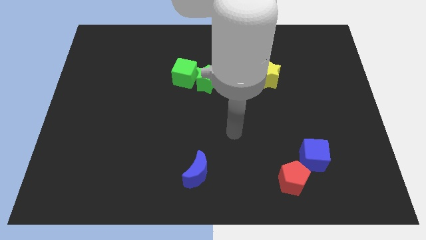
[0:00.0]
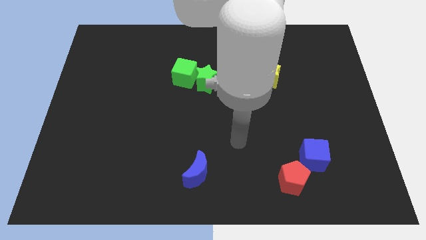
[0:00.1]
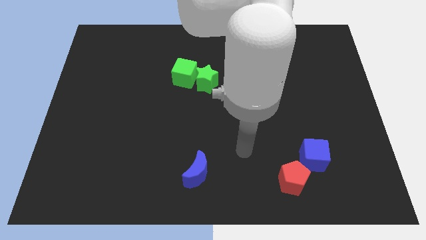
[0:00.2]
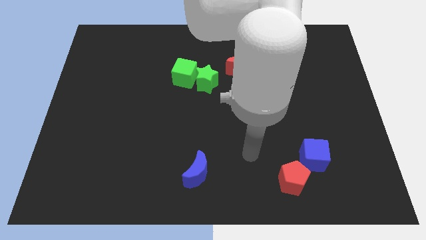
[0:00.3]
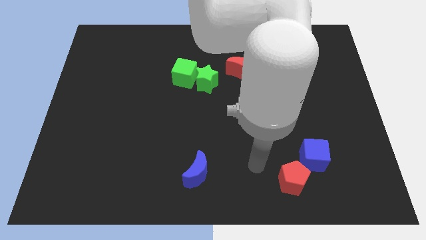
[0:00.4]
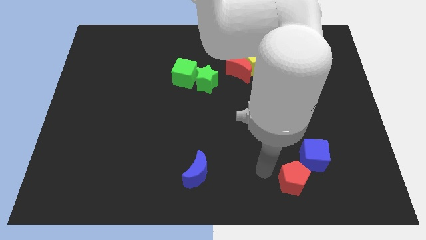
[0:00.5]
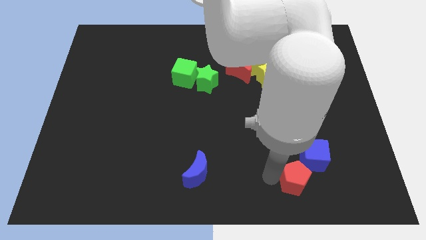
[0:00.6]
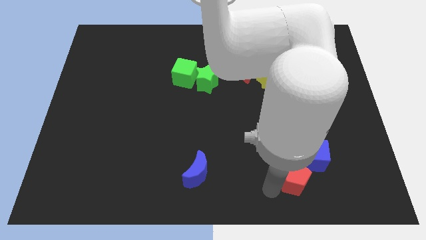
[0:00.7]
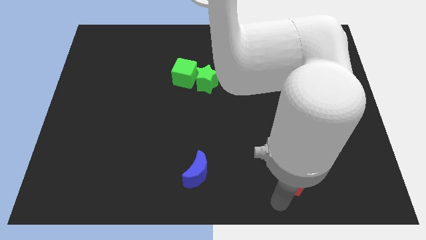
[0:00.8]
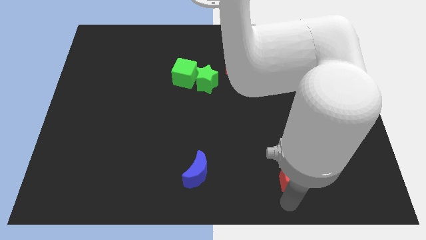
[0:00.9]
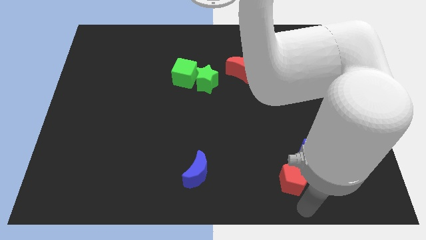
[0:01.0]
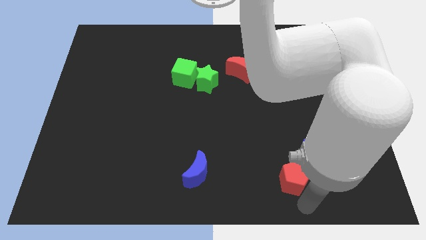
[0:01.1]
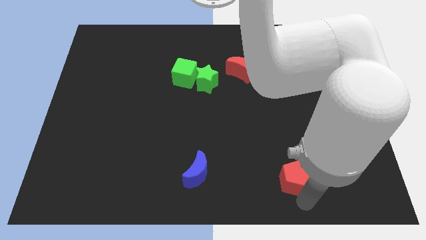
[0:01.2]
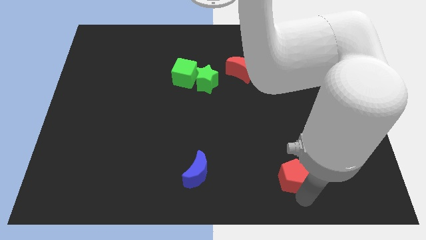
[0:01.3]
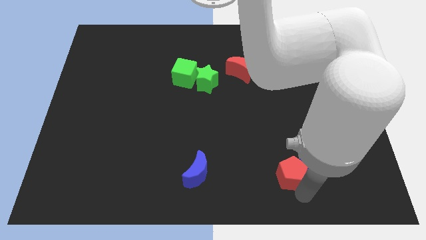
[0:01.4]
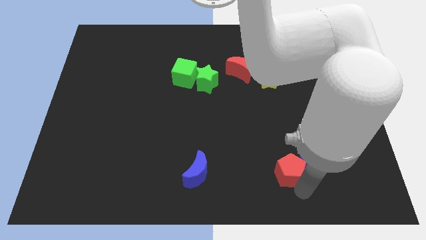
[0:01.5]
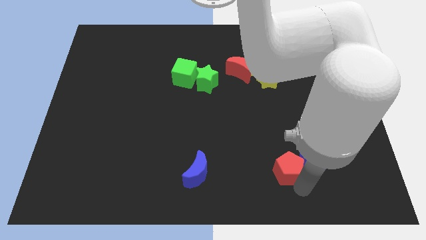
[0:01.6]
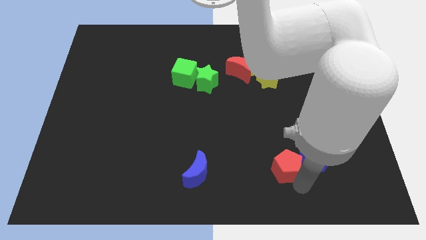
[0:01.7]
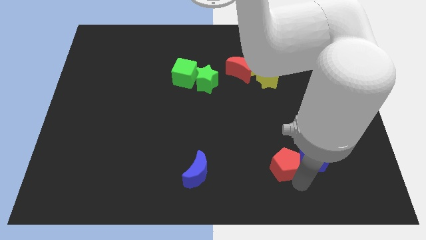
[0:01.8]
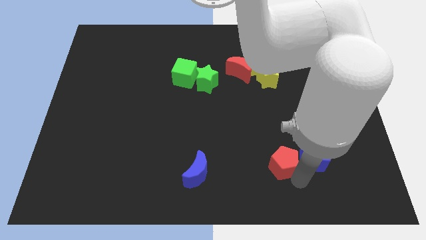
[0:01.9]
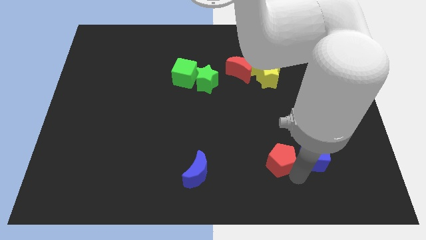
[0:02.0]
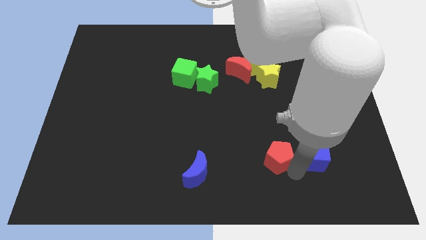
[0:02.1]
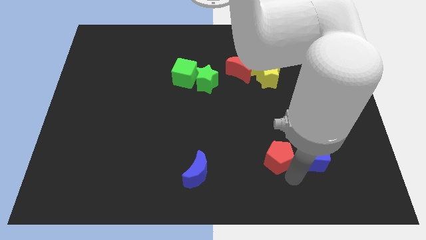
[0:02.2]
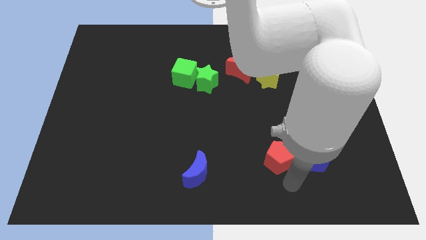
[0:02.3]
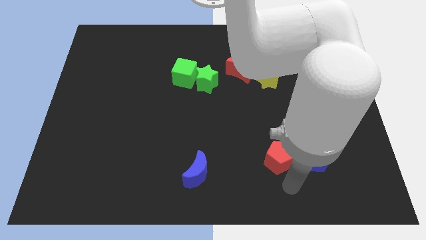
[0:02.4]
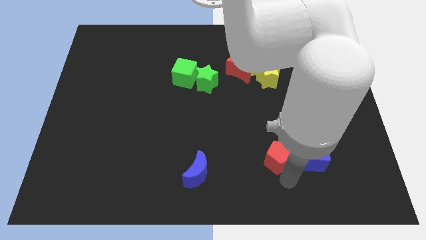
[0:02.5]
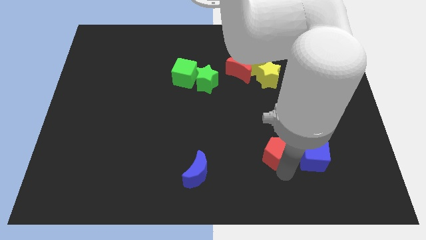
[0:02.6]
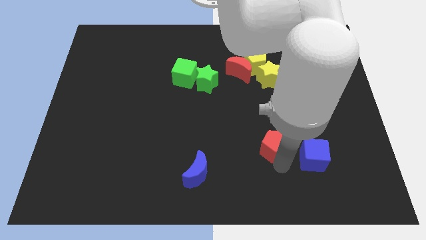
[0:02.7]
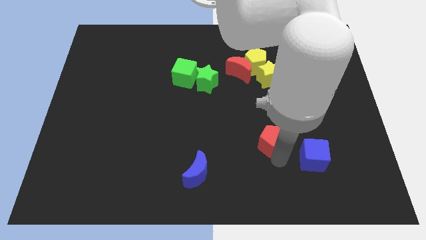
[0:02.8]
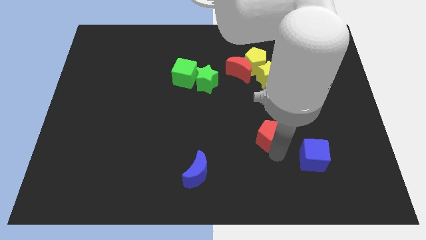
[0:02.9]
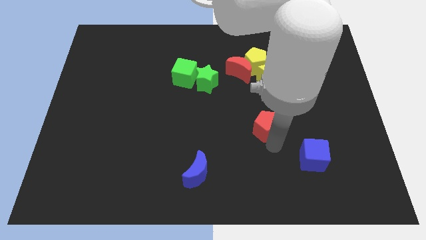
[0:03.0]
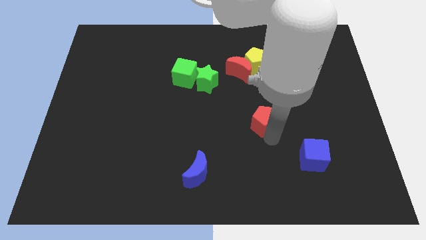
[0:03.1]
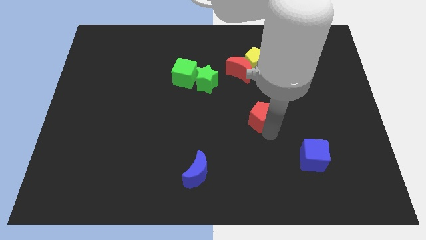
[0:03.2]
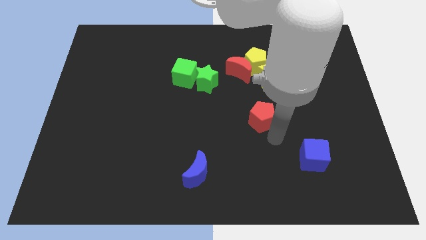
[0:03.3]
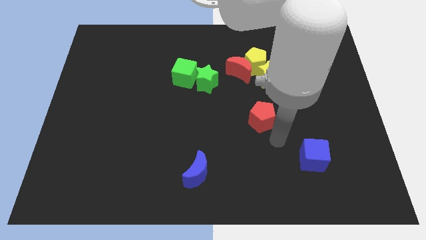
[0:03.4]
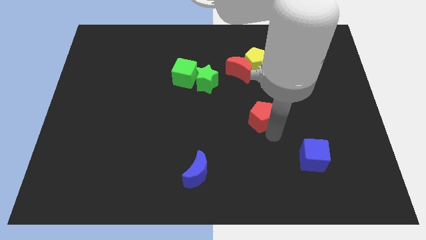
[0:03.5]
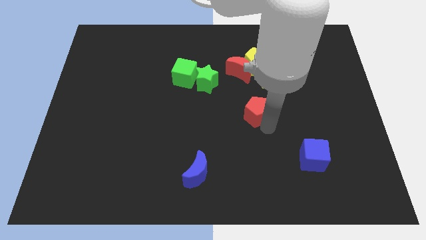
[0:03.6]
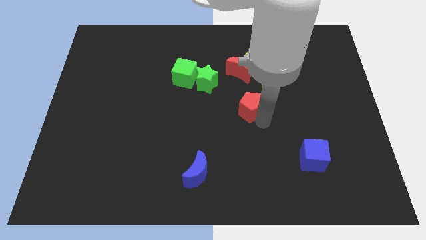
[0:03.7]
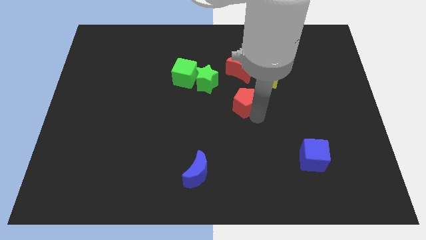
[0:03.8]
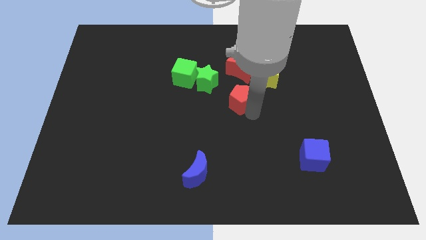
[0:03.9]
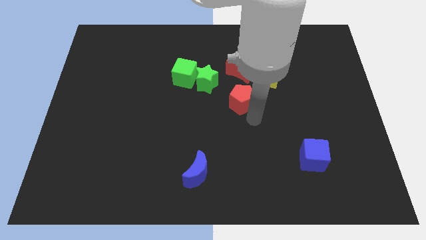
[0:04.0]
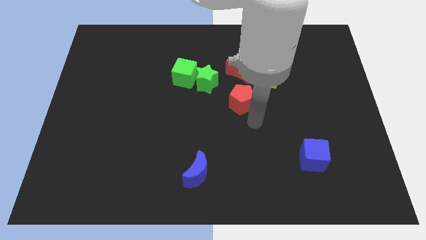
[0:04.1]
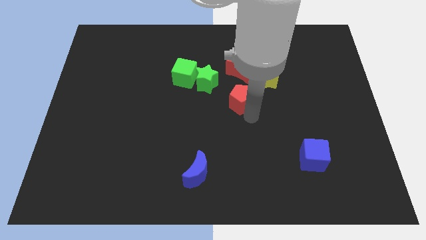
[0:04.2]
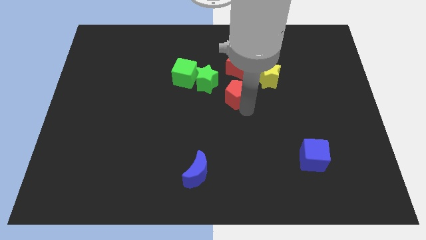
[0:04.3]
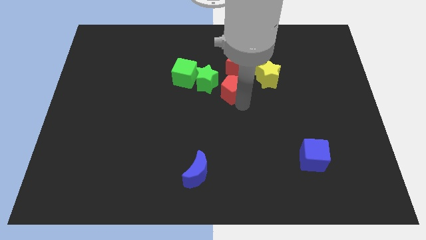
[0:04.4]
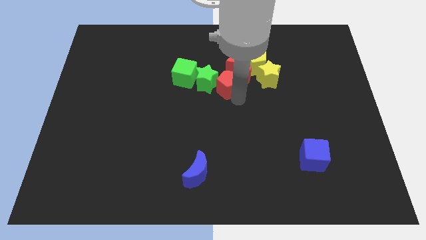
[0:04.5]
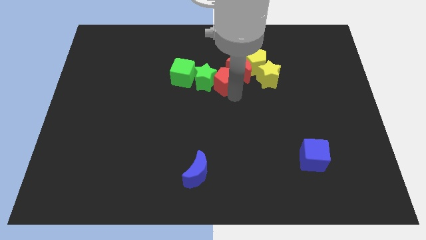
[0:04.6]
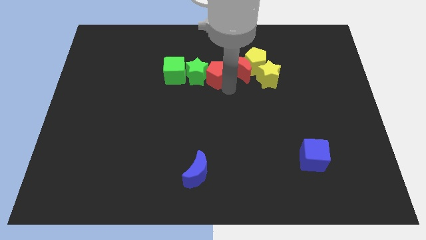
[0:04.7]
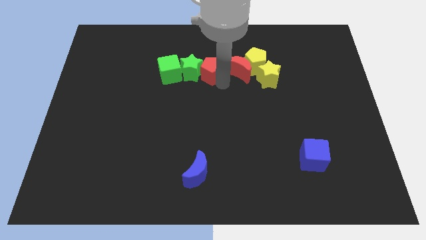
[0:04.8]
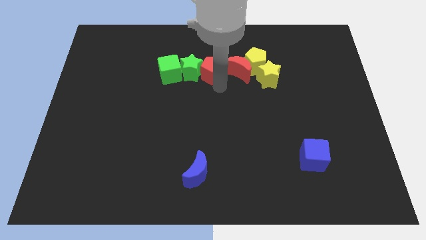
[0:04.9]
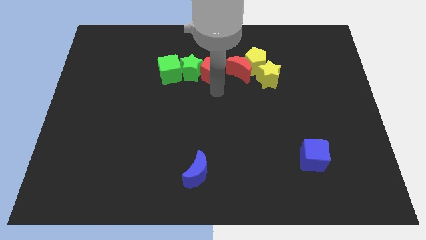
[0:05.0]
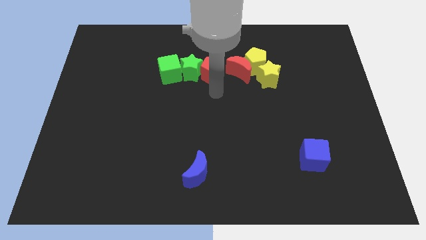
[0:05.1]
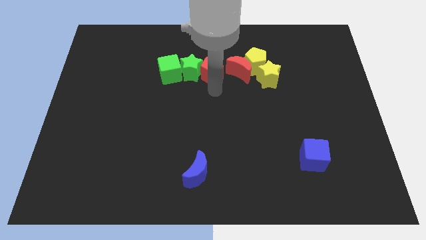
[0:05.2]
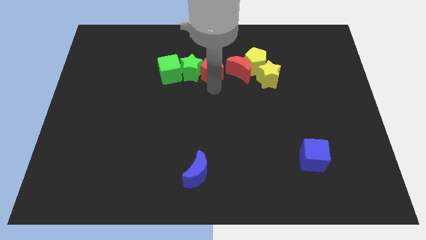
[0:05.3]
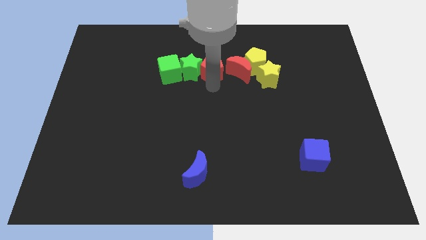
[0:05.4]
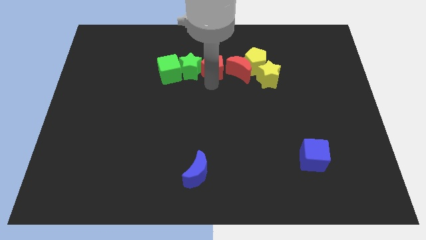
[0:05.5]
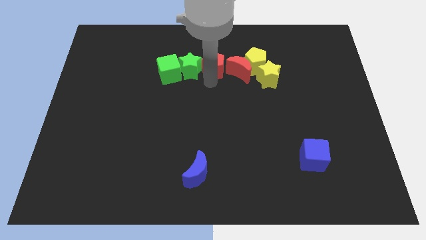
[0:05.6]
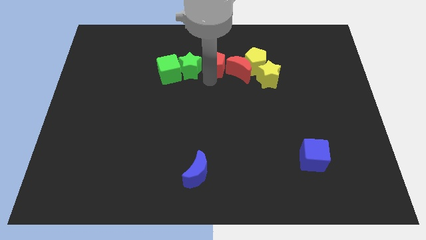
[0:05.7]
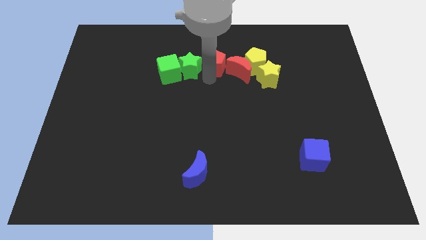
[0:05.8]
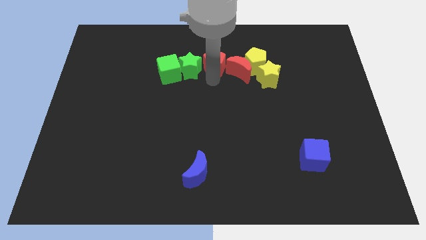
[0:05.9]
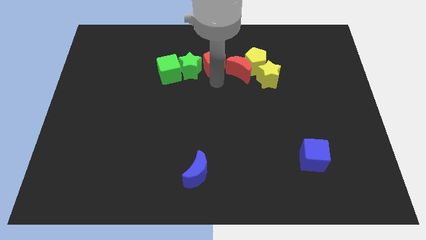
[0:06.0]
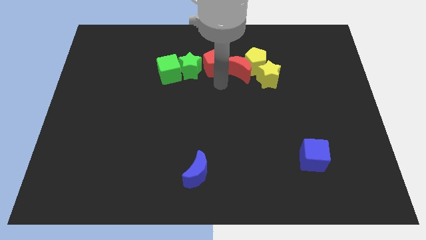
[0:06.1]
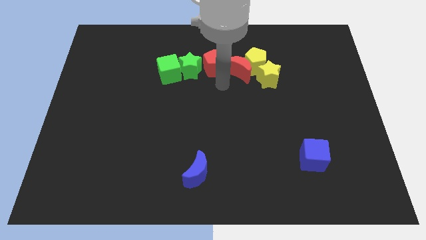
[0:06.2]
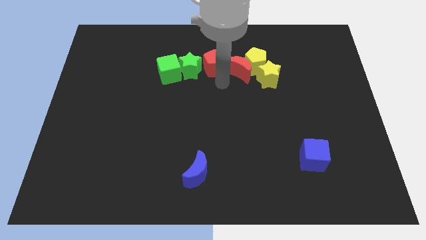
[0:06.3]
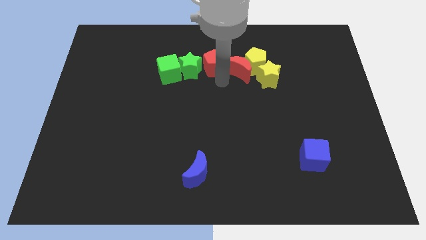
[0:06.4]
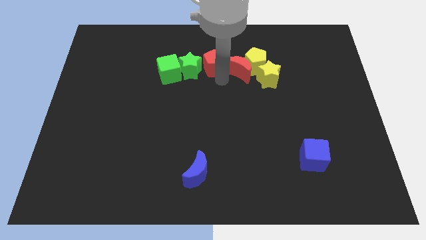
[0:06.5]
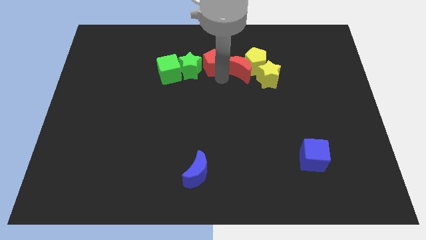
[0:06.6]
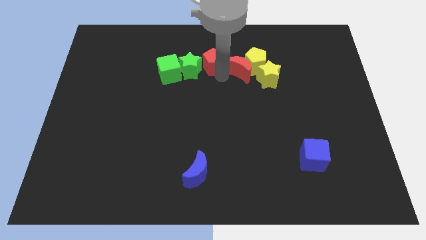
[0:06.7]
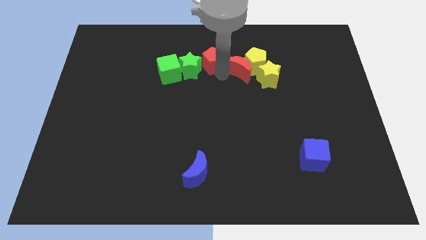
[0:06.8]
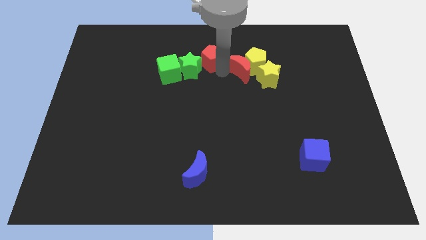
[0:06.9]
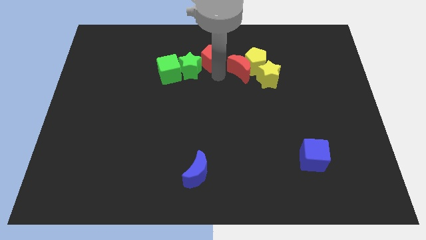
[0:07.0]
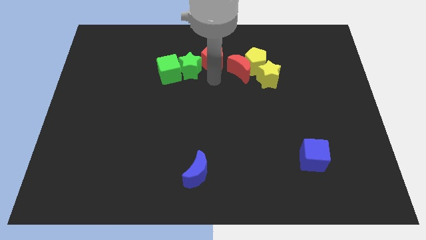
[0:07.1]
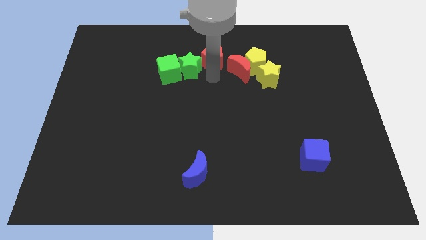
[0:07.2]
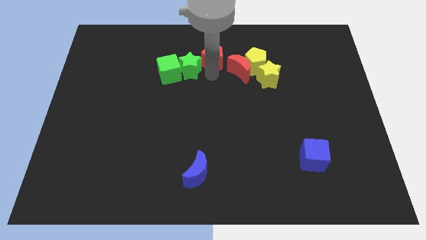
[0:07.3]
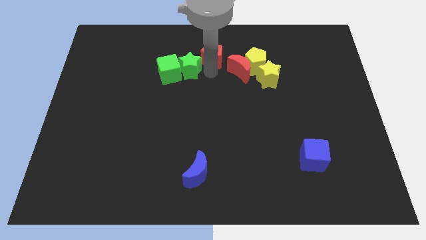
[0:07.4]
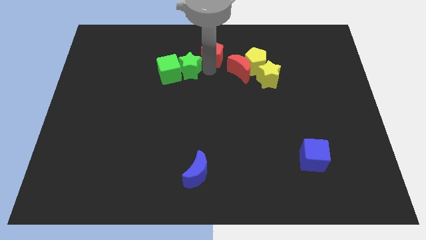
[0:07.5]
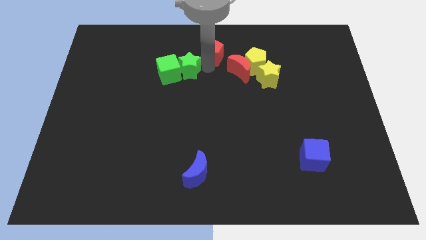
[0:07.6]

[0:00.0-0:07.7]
move the red pentagon to the towards your base
